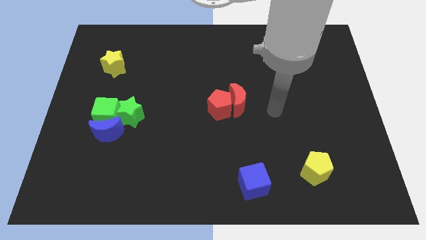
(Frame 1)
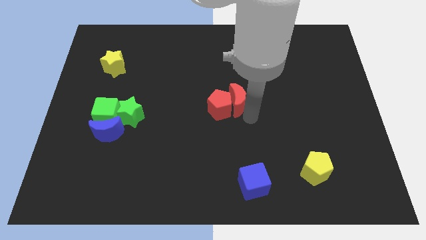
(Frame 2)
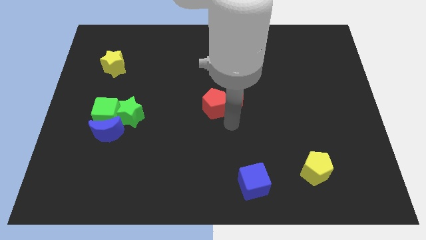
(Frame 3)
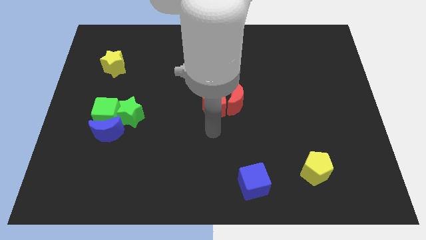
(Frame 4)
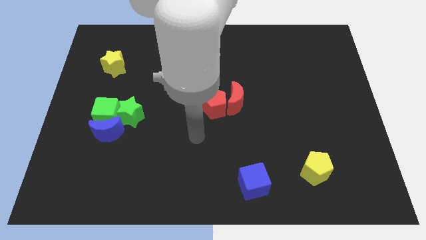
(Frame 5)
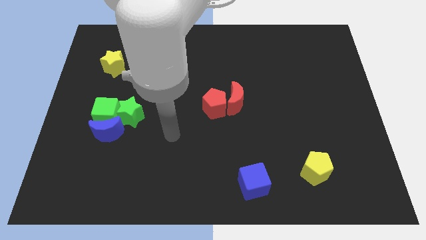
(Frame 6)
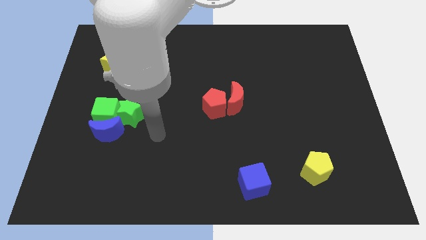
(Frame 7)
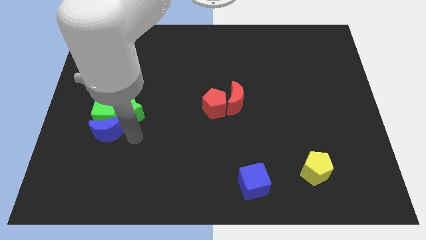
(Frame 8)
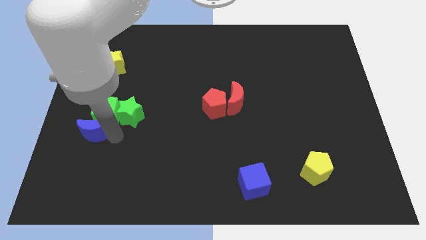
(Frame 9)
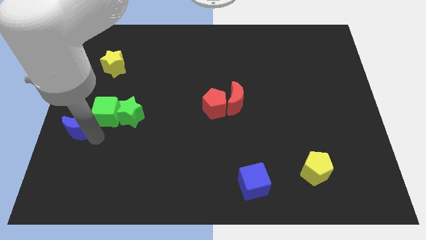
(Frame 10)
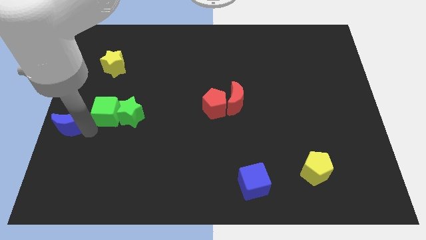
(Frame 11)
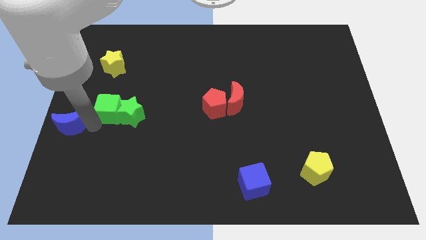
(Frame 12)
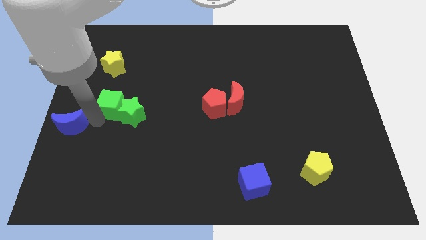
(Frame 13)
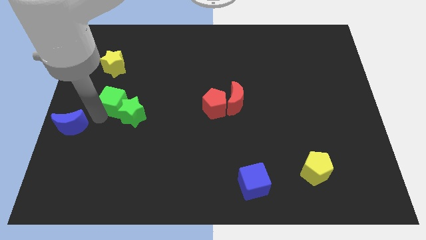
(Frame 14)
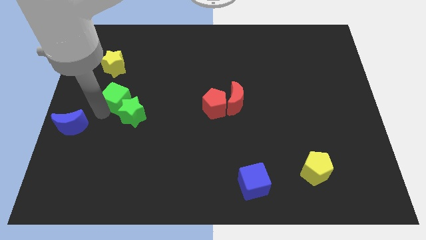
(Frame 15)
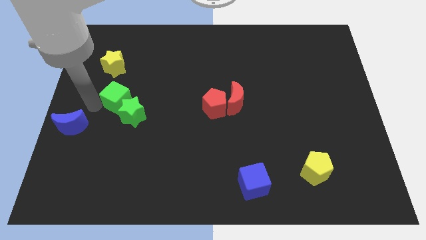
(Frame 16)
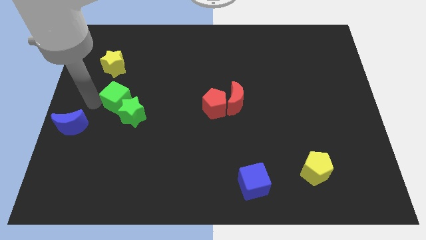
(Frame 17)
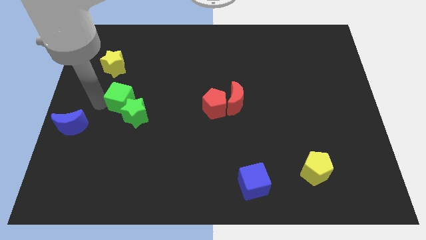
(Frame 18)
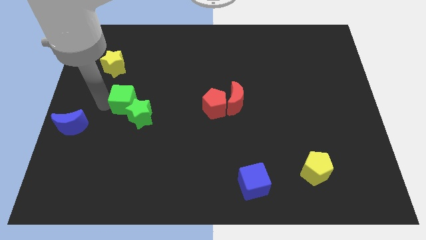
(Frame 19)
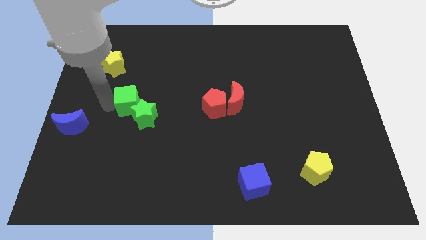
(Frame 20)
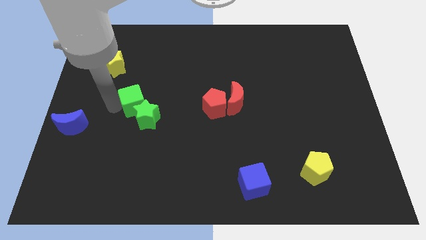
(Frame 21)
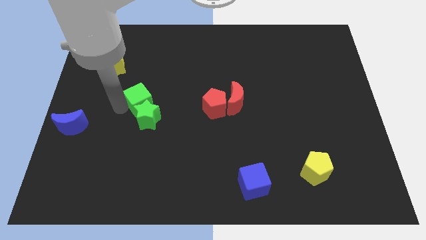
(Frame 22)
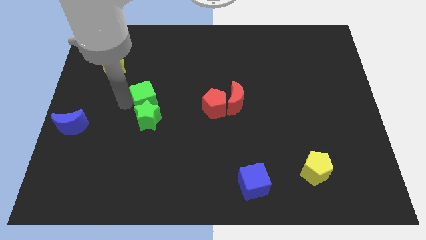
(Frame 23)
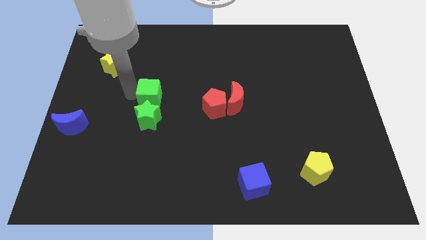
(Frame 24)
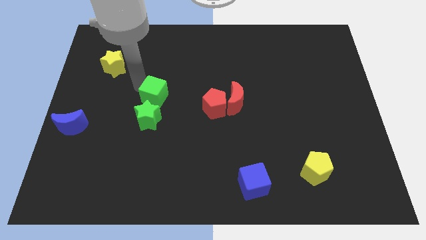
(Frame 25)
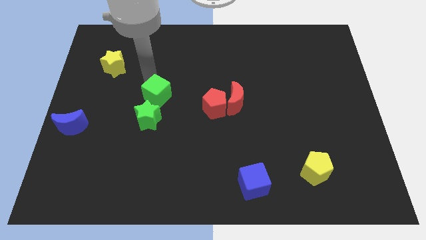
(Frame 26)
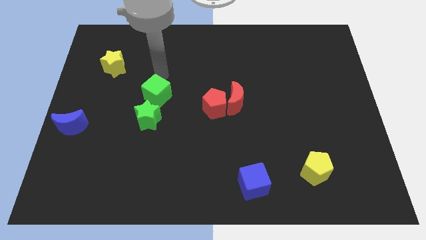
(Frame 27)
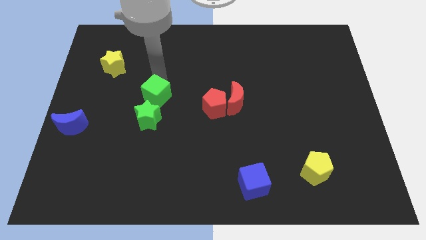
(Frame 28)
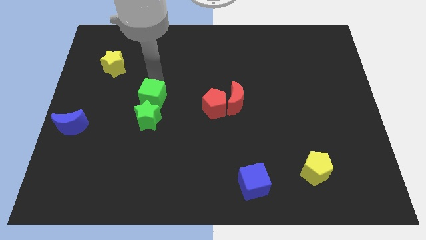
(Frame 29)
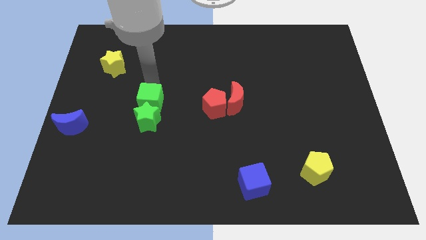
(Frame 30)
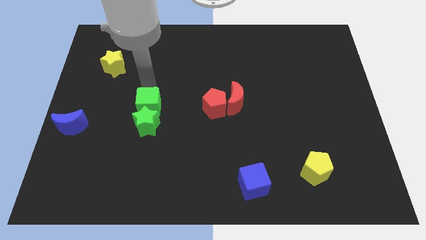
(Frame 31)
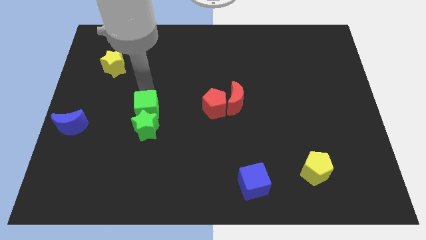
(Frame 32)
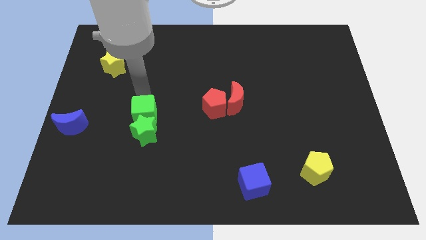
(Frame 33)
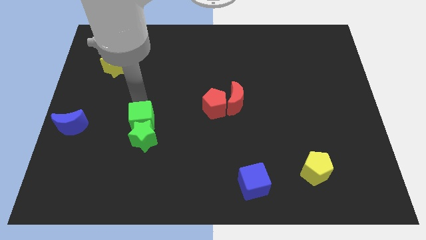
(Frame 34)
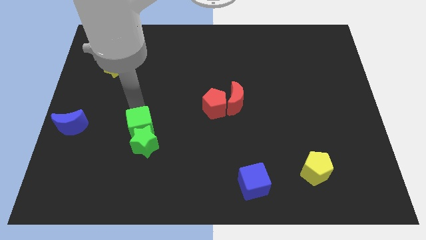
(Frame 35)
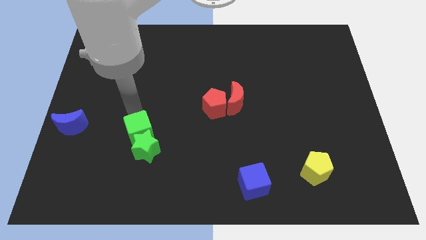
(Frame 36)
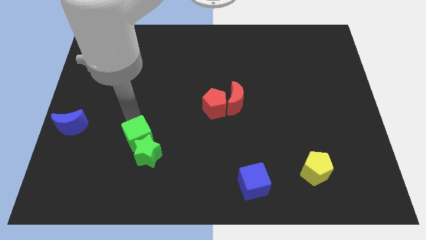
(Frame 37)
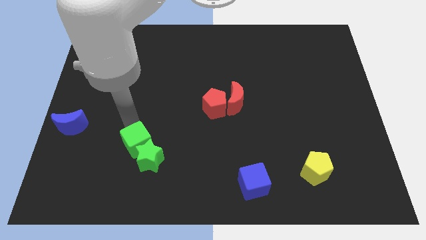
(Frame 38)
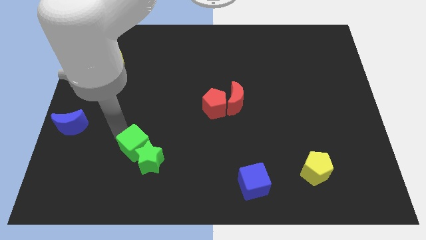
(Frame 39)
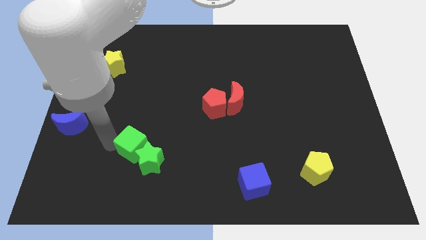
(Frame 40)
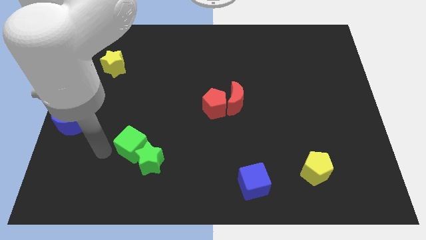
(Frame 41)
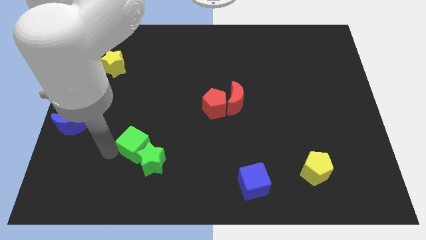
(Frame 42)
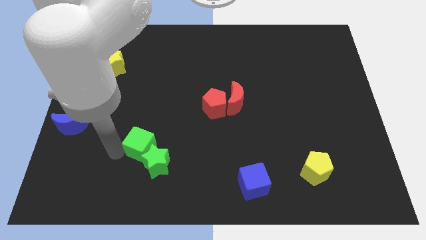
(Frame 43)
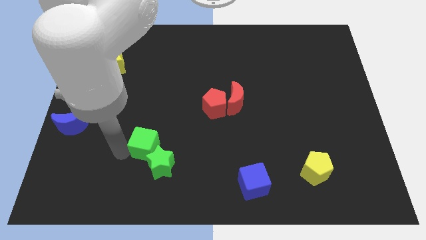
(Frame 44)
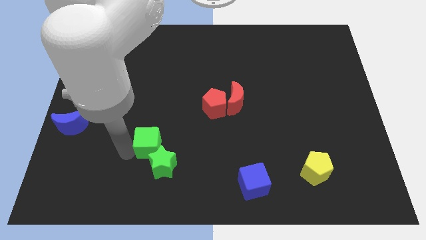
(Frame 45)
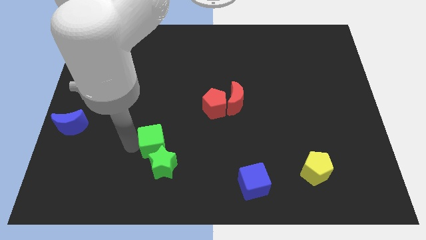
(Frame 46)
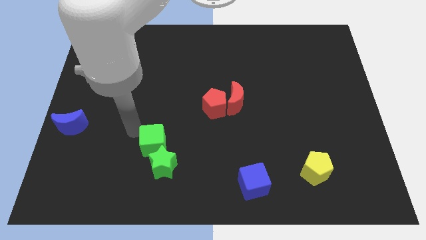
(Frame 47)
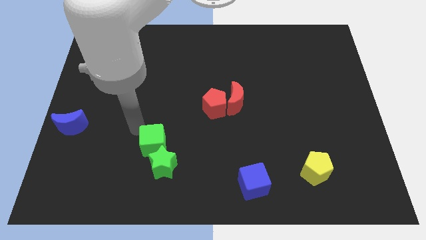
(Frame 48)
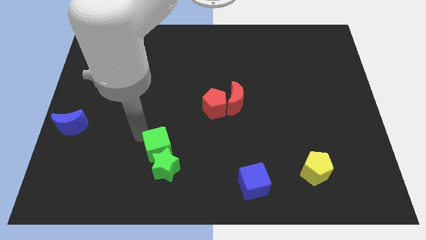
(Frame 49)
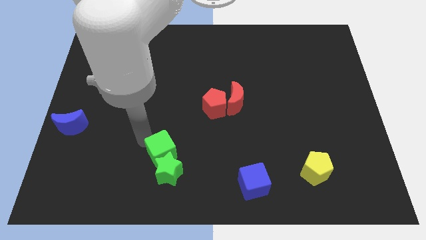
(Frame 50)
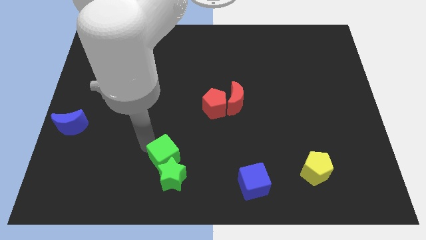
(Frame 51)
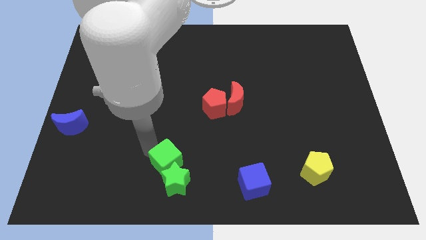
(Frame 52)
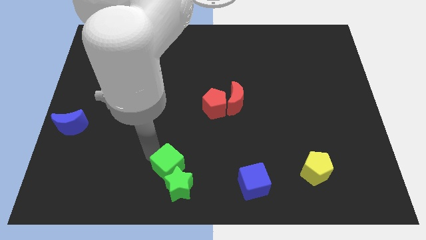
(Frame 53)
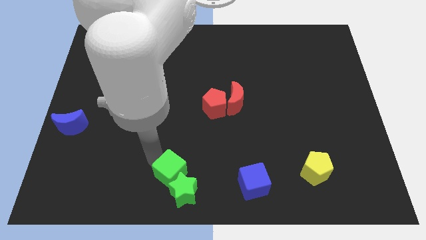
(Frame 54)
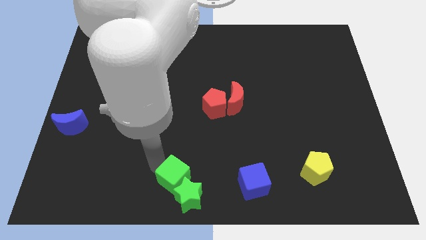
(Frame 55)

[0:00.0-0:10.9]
put the green cube just left of the blue cube

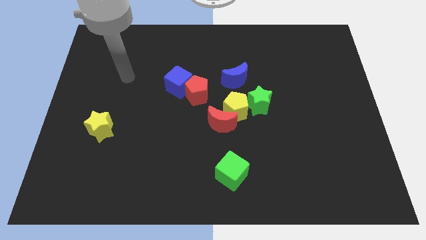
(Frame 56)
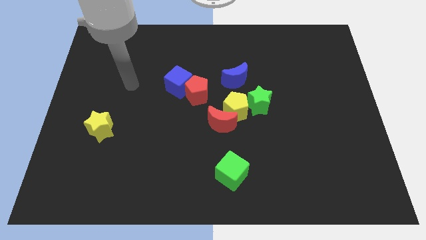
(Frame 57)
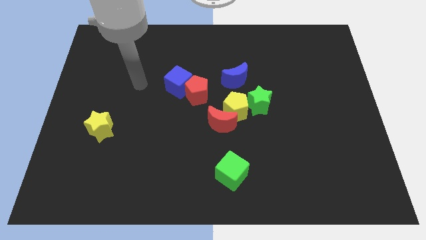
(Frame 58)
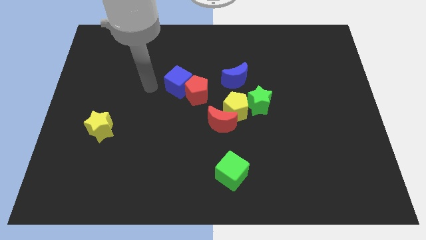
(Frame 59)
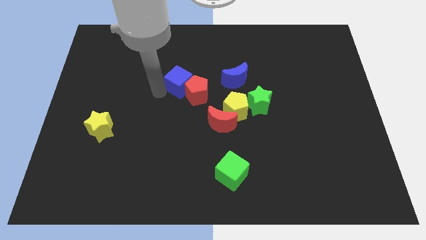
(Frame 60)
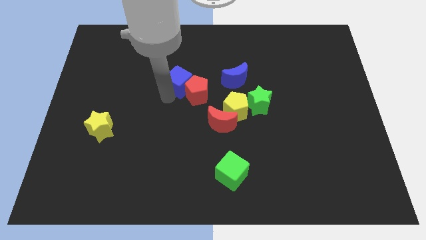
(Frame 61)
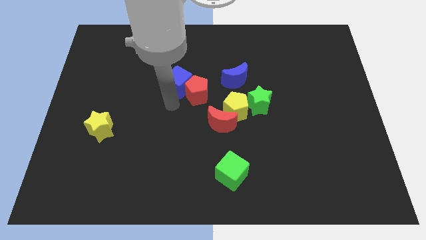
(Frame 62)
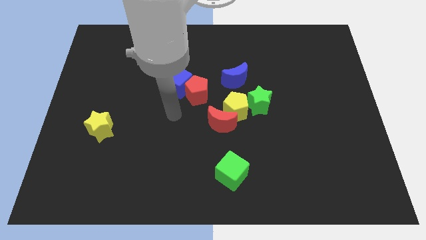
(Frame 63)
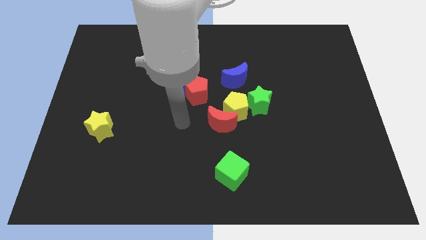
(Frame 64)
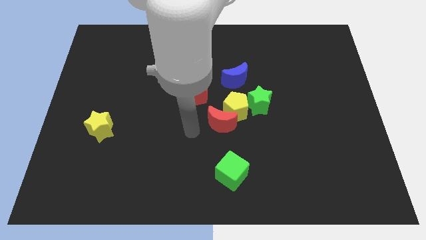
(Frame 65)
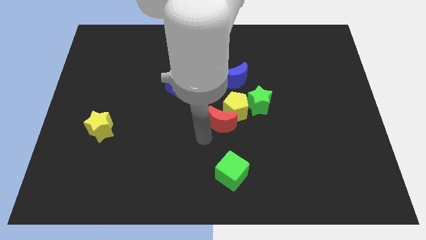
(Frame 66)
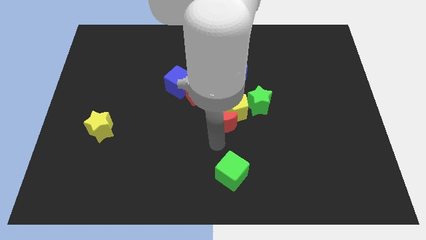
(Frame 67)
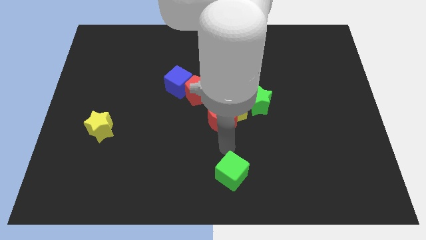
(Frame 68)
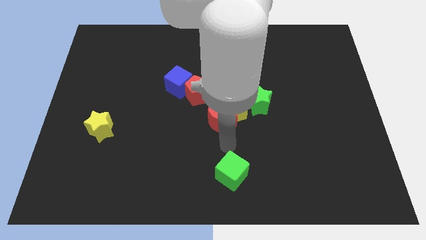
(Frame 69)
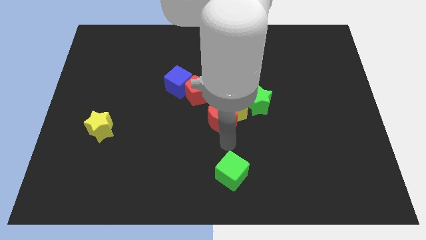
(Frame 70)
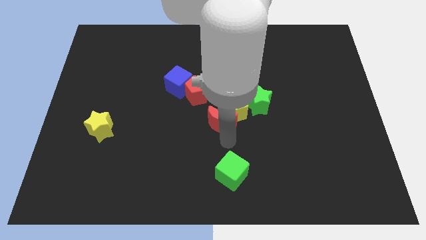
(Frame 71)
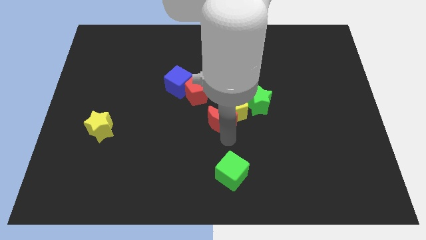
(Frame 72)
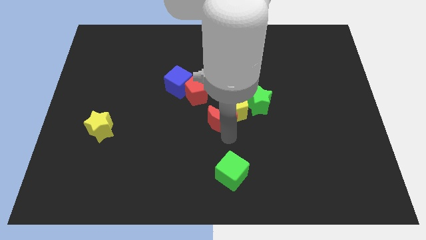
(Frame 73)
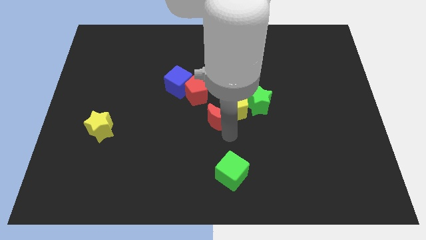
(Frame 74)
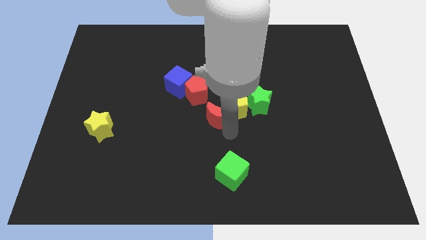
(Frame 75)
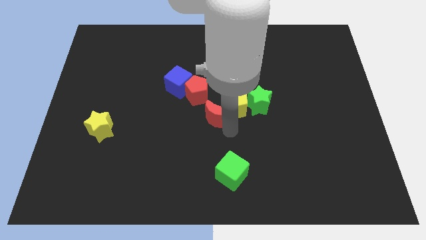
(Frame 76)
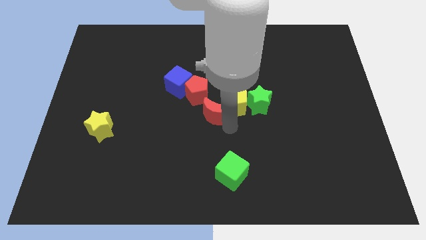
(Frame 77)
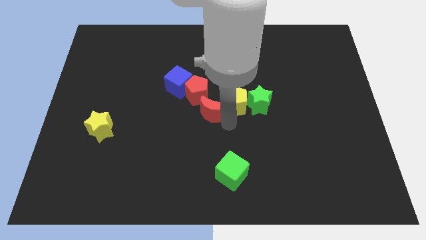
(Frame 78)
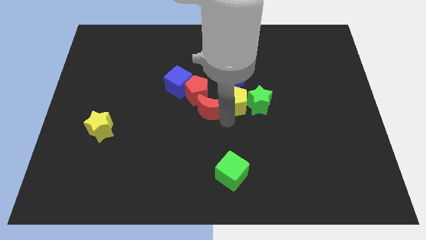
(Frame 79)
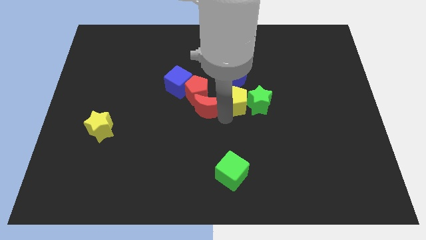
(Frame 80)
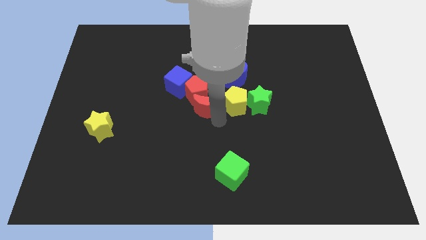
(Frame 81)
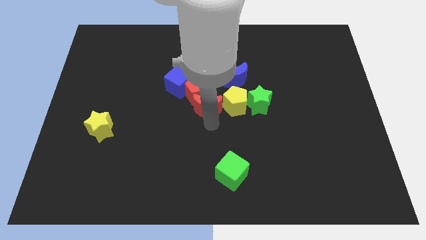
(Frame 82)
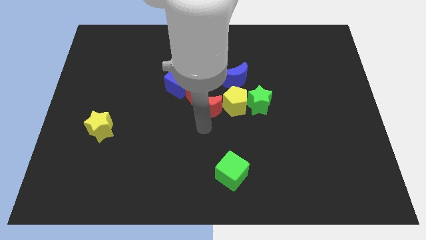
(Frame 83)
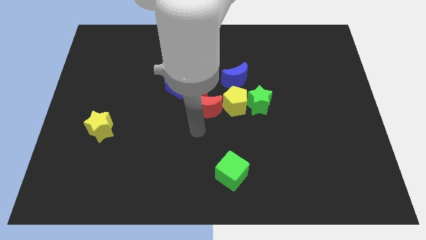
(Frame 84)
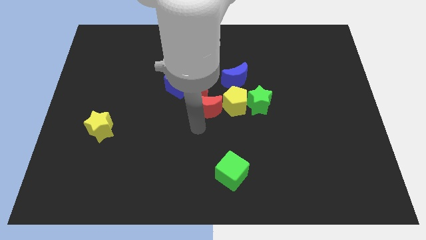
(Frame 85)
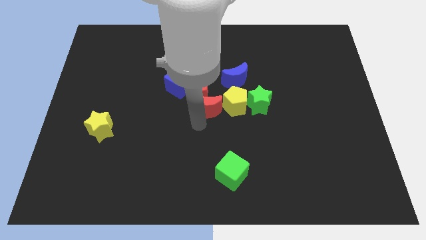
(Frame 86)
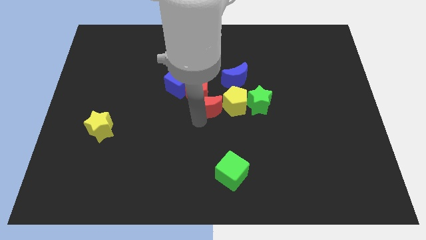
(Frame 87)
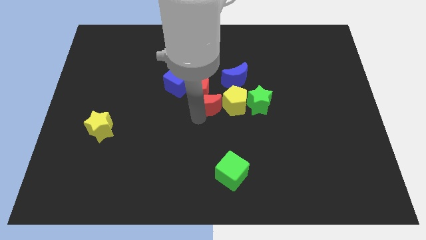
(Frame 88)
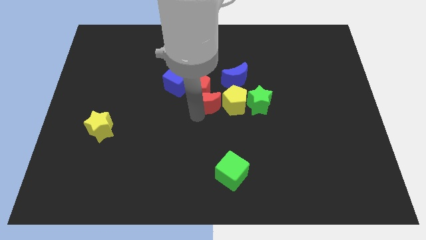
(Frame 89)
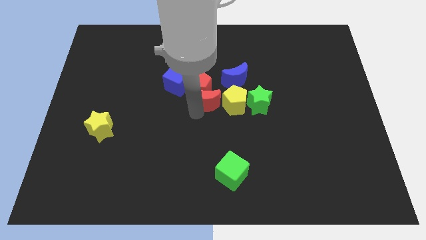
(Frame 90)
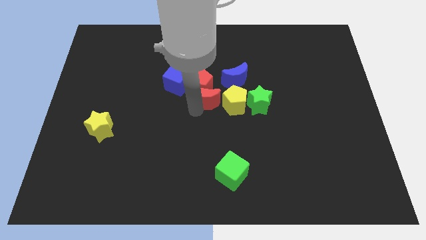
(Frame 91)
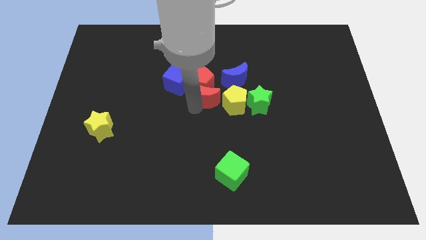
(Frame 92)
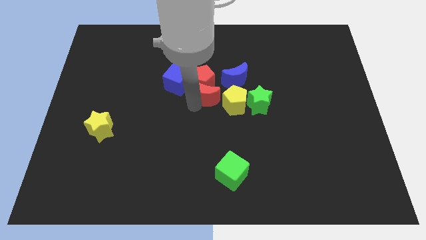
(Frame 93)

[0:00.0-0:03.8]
move the red moon to the right side of the blue cube
